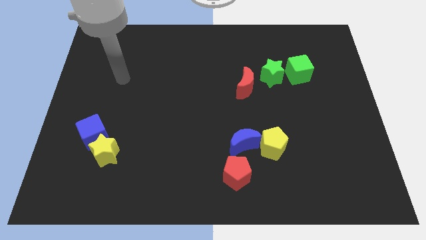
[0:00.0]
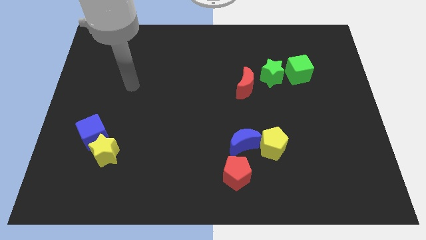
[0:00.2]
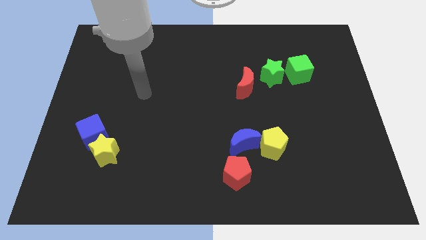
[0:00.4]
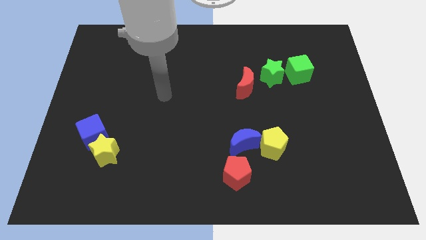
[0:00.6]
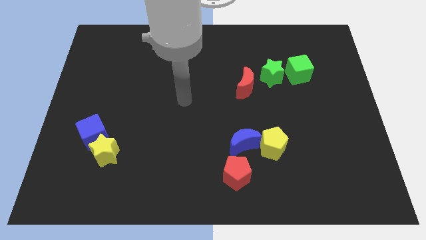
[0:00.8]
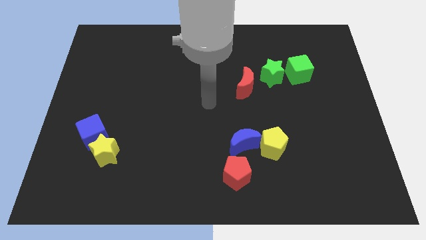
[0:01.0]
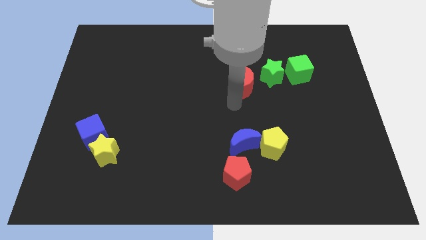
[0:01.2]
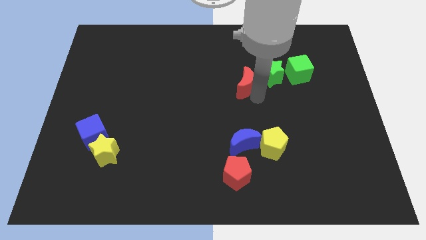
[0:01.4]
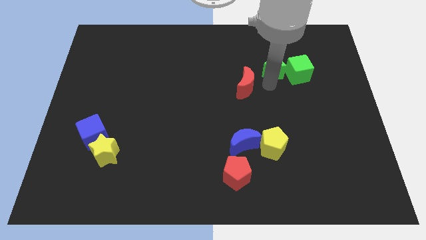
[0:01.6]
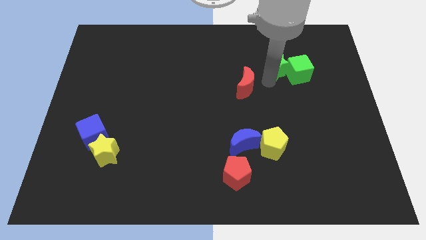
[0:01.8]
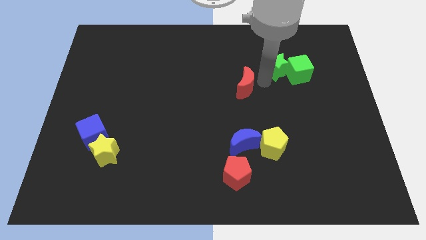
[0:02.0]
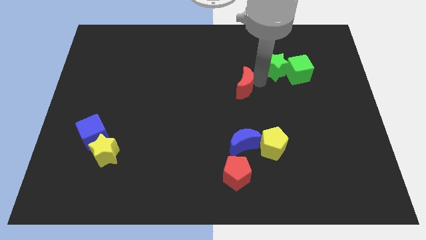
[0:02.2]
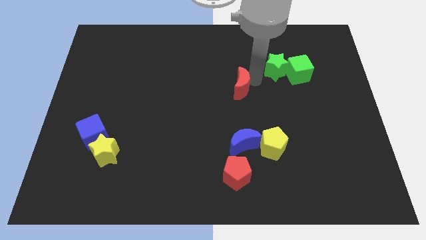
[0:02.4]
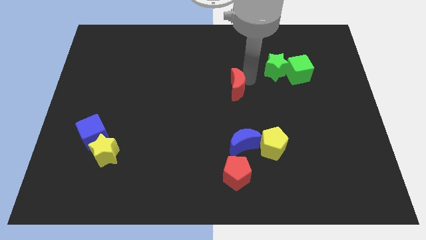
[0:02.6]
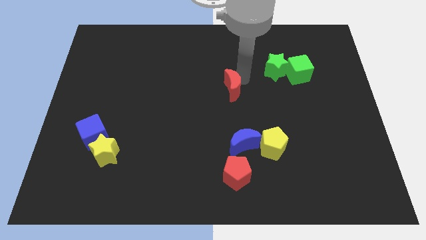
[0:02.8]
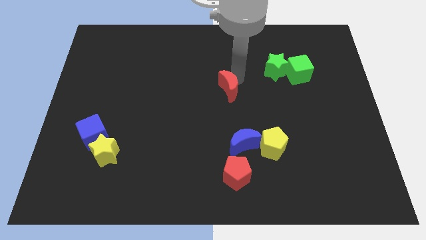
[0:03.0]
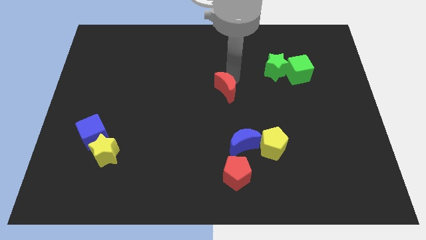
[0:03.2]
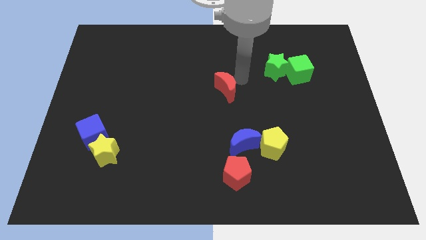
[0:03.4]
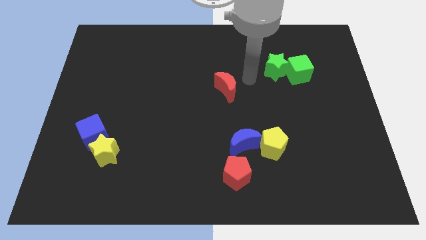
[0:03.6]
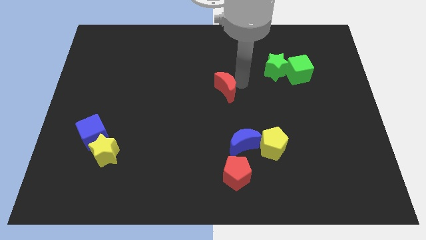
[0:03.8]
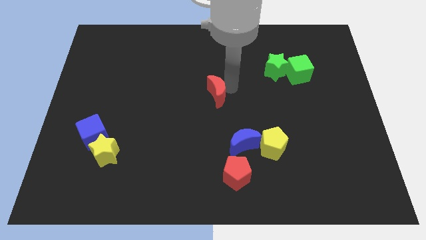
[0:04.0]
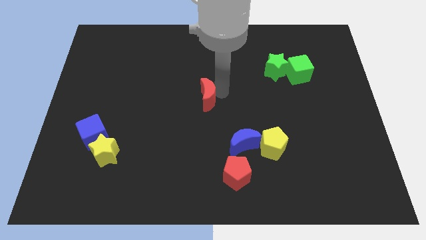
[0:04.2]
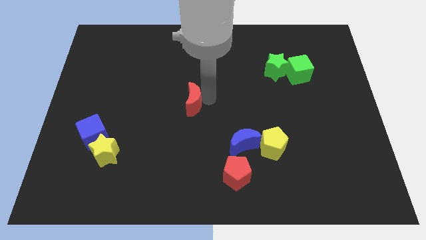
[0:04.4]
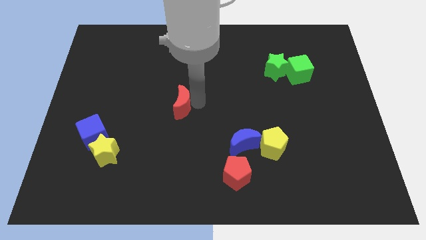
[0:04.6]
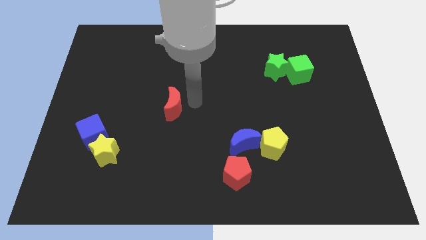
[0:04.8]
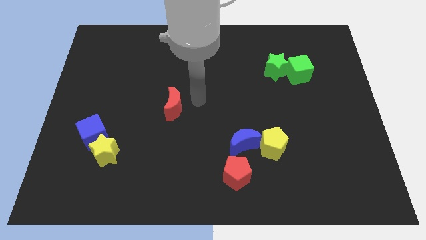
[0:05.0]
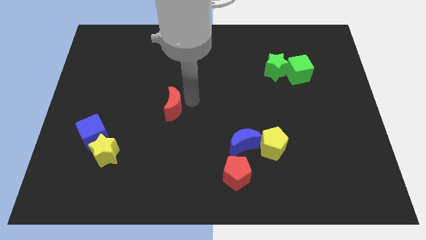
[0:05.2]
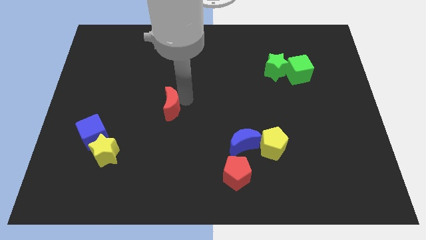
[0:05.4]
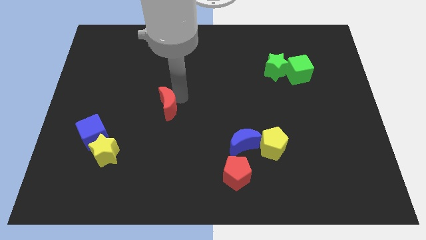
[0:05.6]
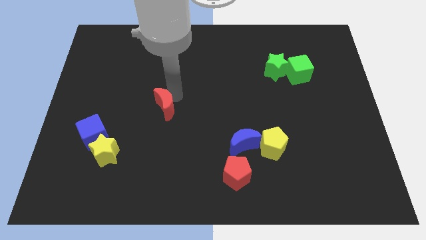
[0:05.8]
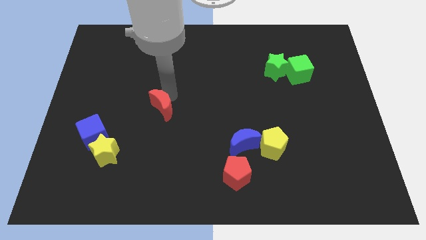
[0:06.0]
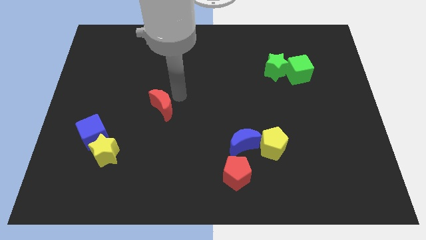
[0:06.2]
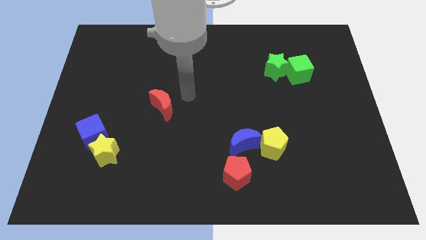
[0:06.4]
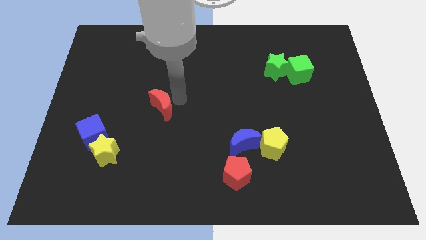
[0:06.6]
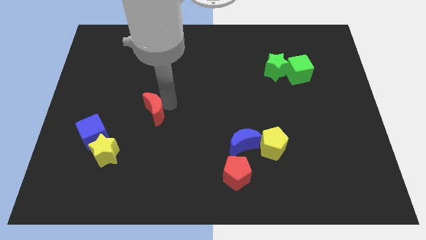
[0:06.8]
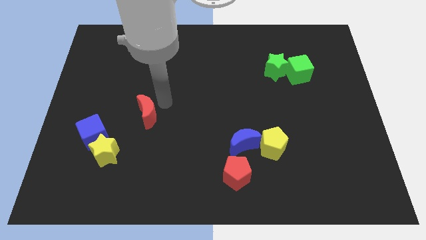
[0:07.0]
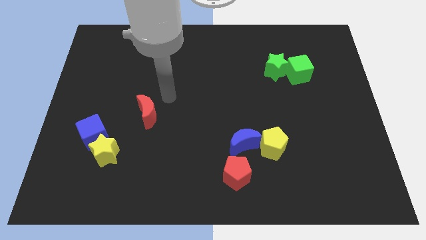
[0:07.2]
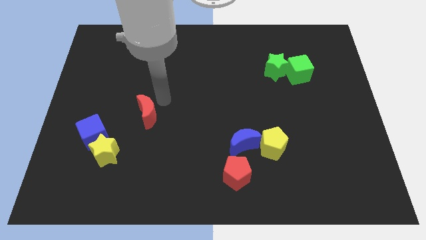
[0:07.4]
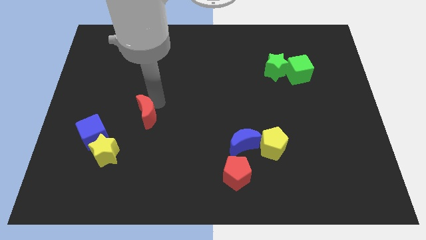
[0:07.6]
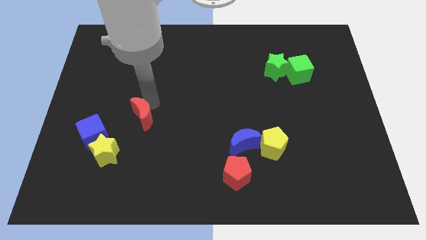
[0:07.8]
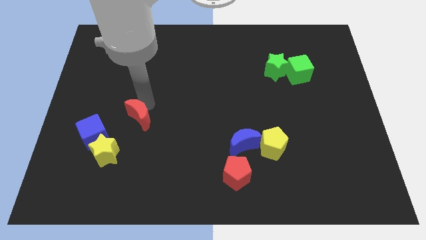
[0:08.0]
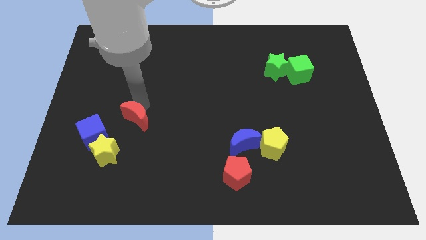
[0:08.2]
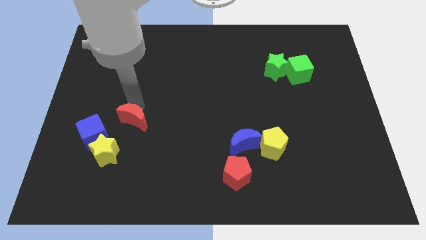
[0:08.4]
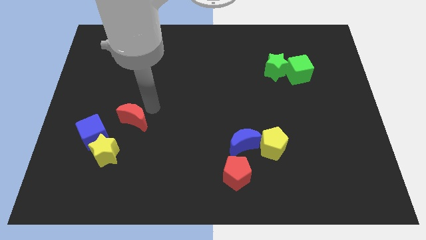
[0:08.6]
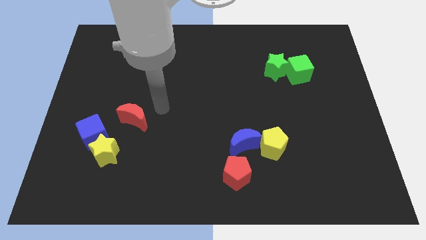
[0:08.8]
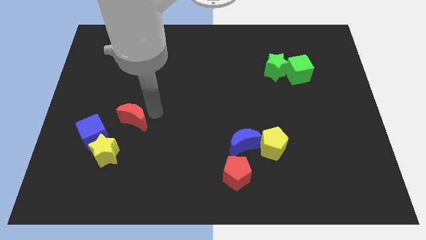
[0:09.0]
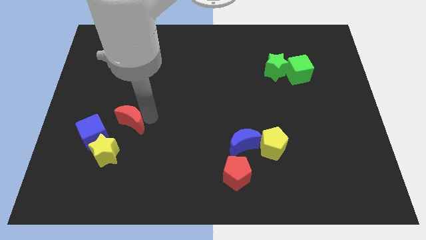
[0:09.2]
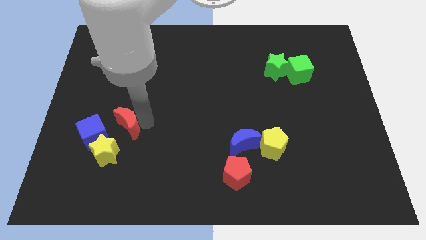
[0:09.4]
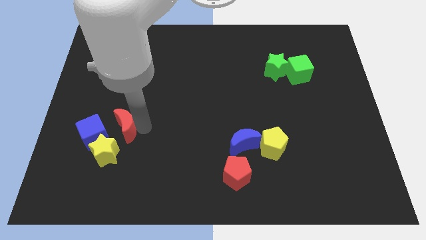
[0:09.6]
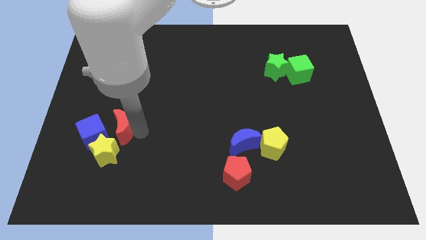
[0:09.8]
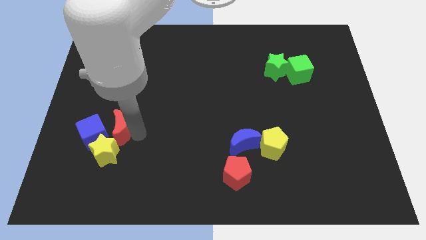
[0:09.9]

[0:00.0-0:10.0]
slide the red moon towards the blue cube

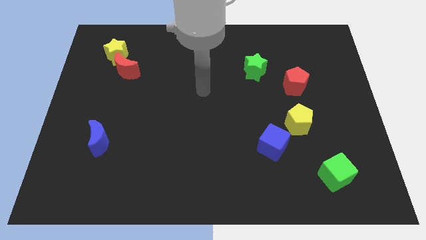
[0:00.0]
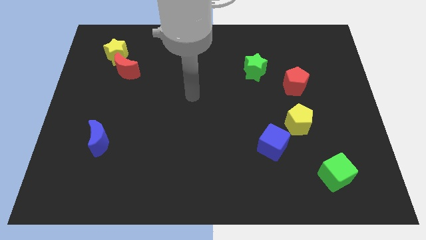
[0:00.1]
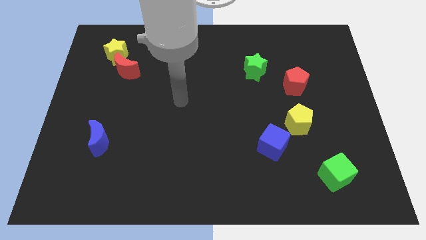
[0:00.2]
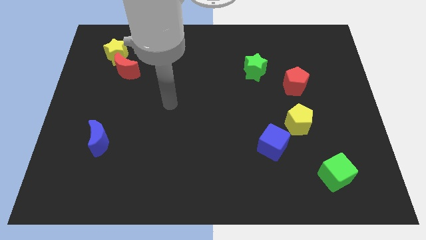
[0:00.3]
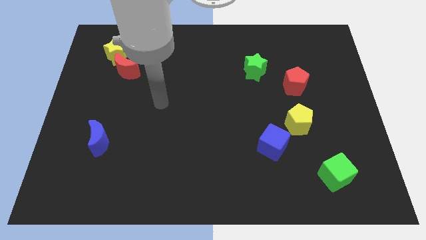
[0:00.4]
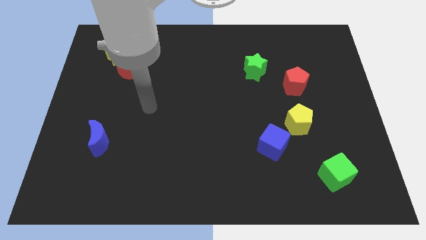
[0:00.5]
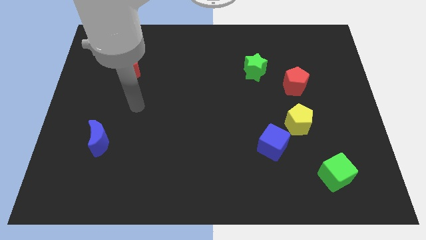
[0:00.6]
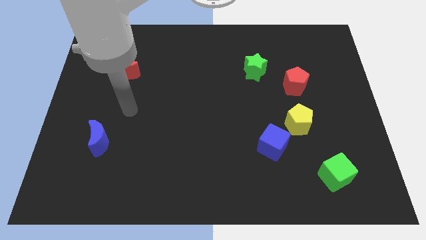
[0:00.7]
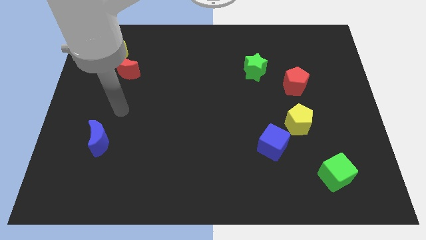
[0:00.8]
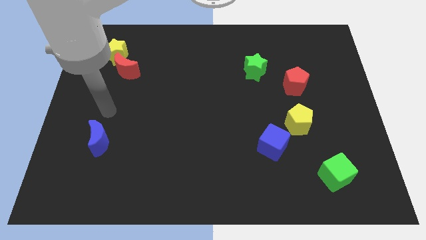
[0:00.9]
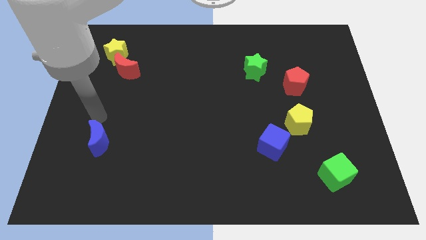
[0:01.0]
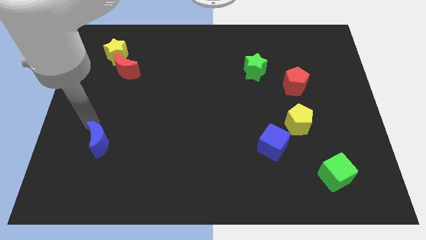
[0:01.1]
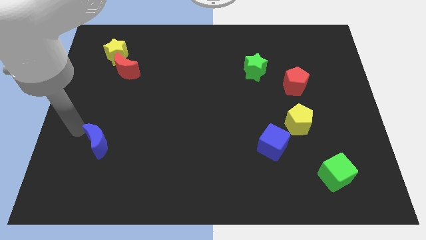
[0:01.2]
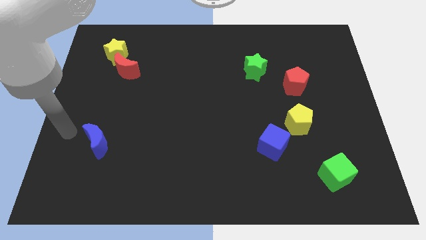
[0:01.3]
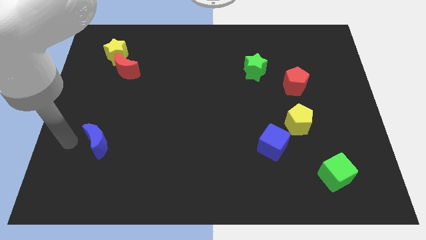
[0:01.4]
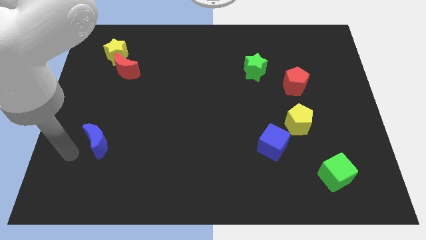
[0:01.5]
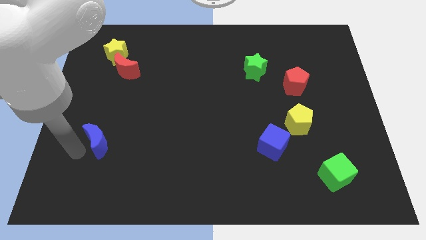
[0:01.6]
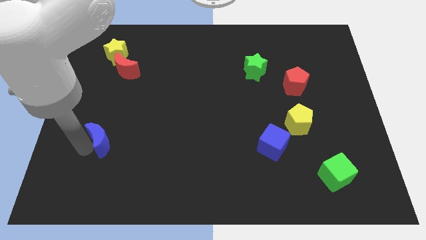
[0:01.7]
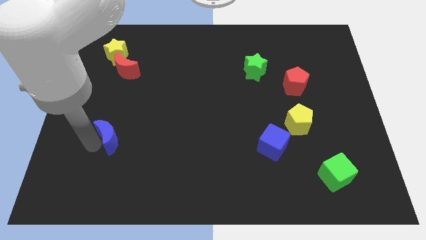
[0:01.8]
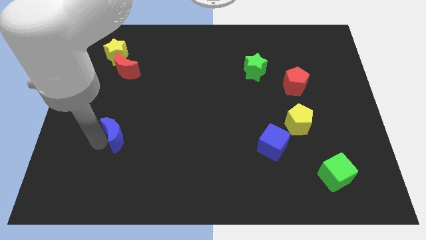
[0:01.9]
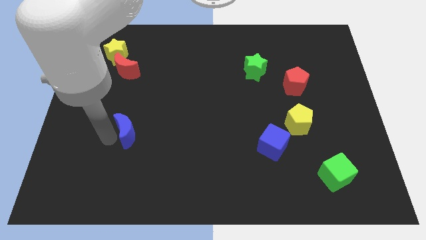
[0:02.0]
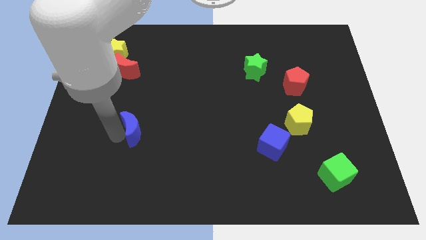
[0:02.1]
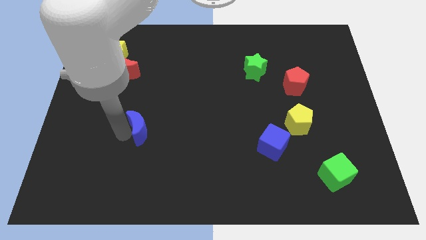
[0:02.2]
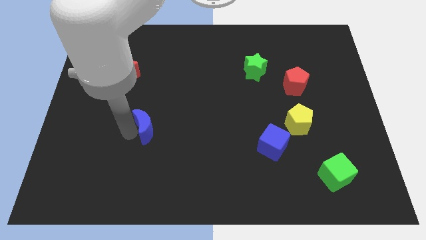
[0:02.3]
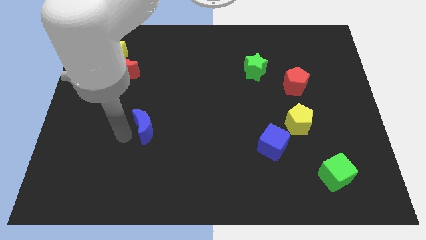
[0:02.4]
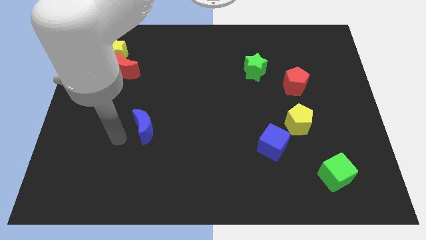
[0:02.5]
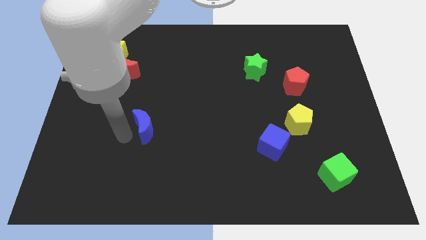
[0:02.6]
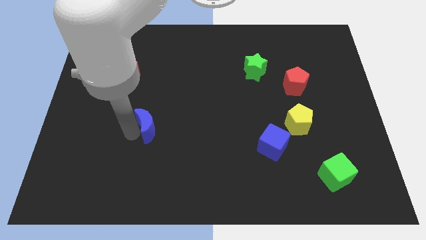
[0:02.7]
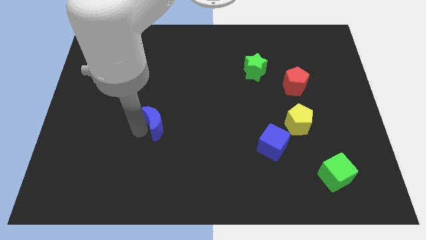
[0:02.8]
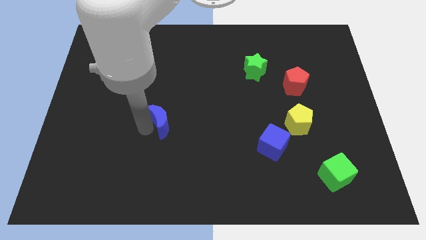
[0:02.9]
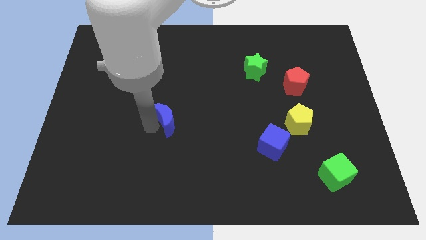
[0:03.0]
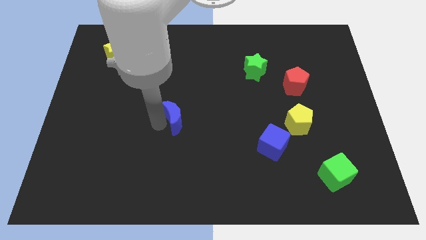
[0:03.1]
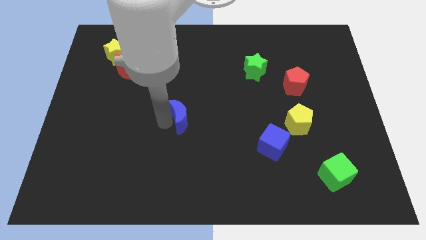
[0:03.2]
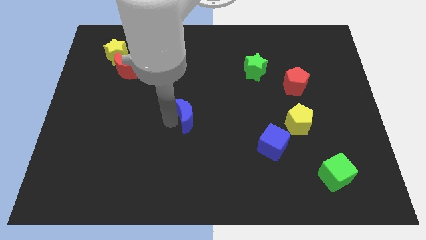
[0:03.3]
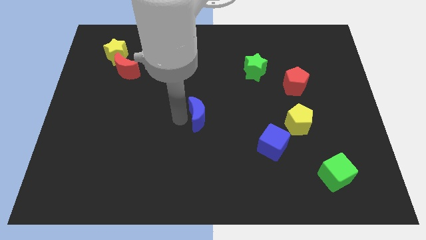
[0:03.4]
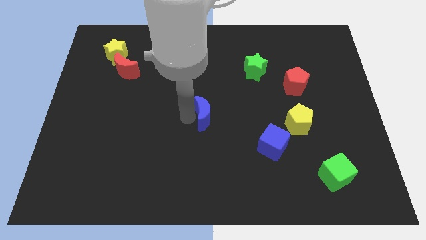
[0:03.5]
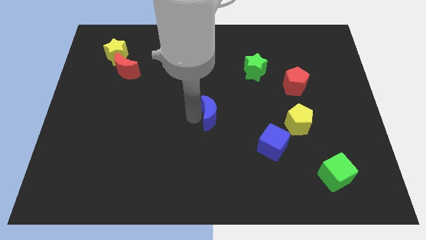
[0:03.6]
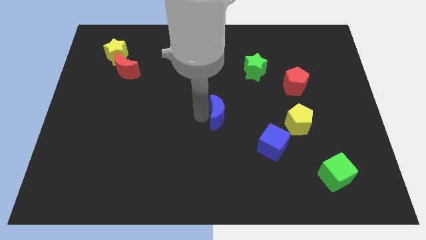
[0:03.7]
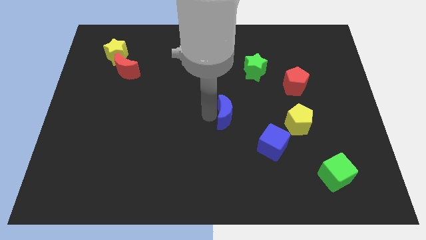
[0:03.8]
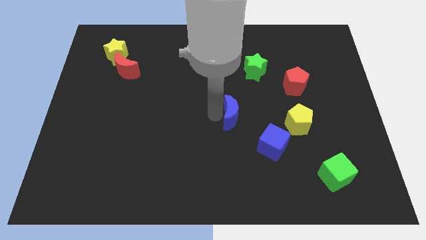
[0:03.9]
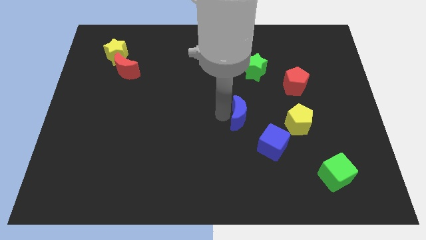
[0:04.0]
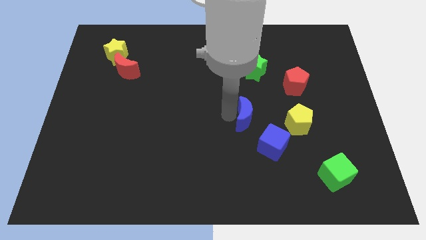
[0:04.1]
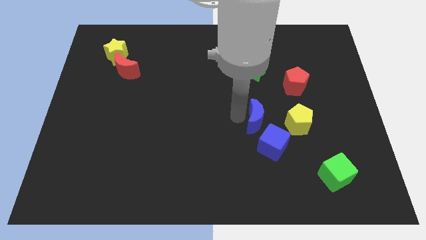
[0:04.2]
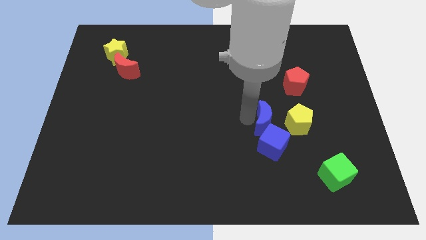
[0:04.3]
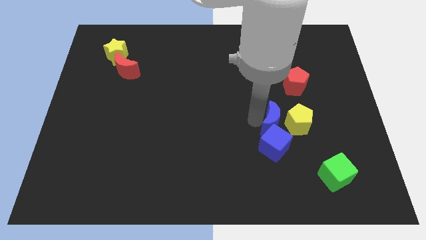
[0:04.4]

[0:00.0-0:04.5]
slide the blue moon to the yellow pentagon
